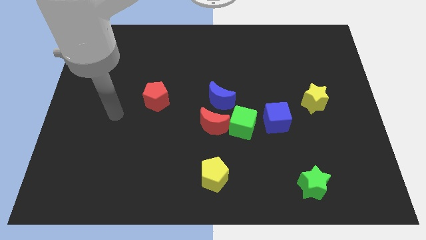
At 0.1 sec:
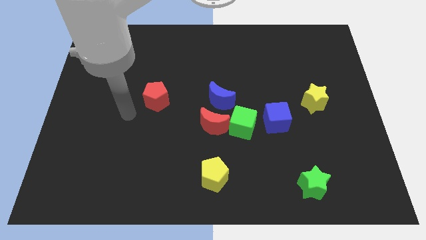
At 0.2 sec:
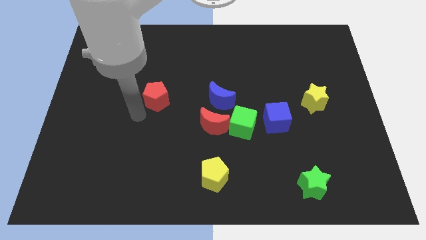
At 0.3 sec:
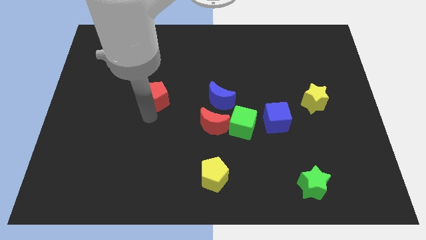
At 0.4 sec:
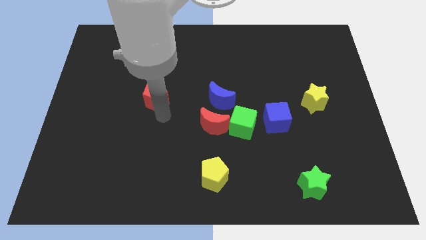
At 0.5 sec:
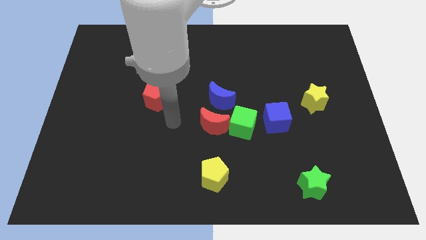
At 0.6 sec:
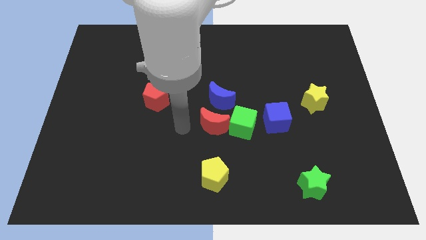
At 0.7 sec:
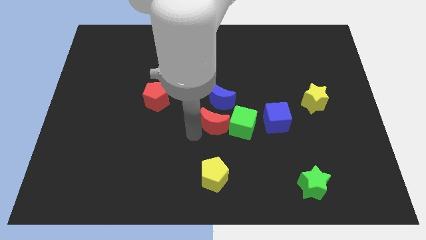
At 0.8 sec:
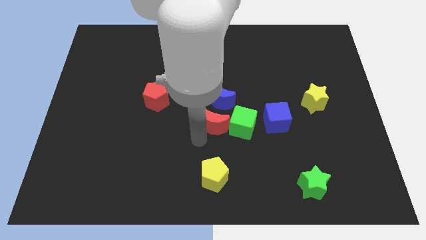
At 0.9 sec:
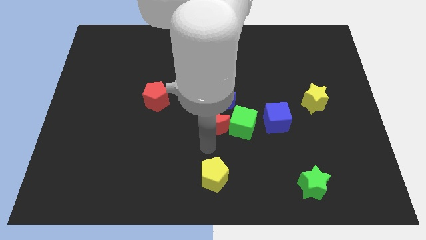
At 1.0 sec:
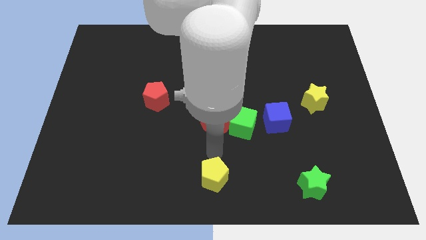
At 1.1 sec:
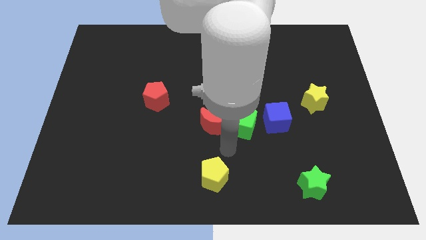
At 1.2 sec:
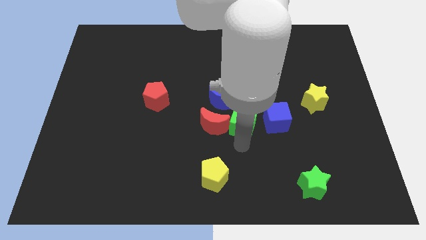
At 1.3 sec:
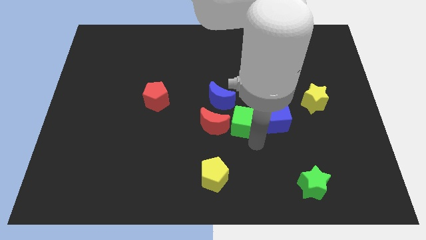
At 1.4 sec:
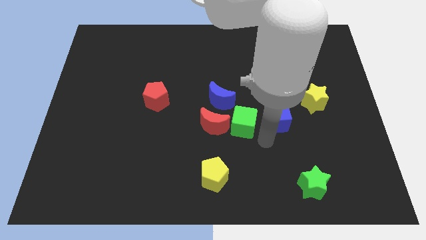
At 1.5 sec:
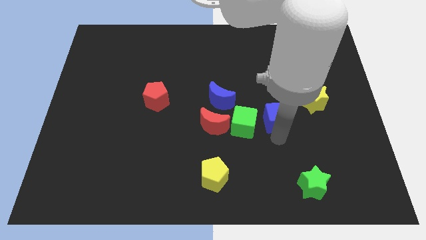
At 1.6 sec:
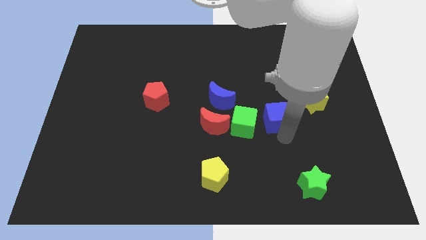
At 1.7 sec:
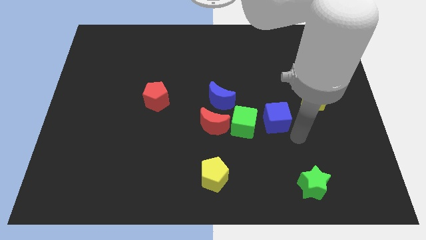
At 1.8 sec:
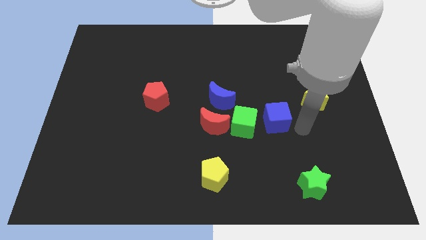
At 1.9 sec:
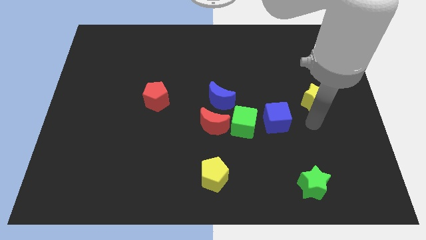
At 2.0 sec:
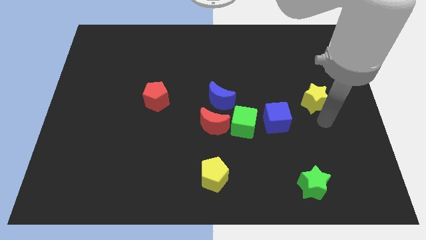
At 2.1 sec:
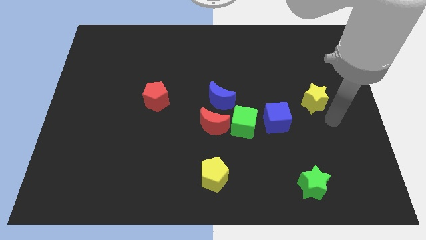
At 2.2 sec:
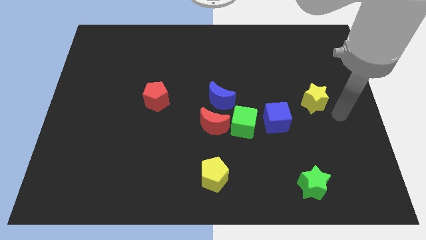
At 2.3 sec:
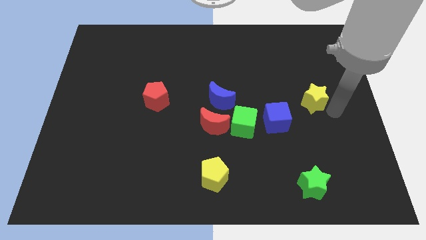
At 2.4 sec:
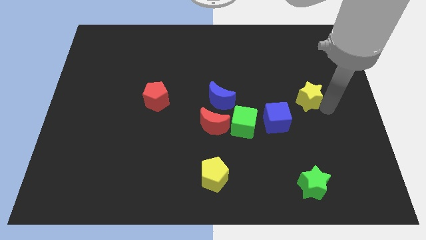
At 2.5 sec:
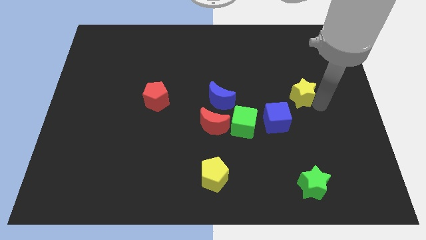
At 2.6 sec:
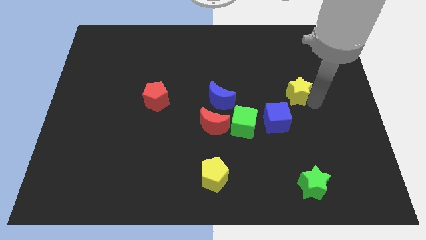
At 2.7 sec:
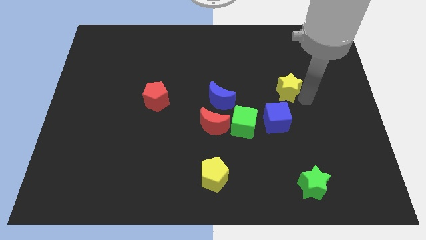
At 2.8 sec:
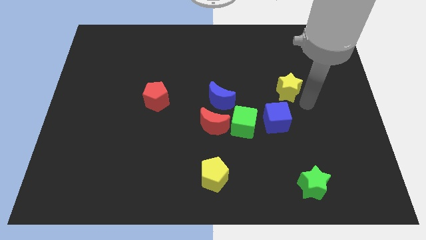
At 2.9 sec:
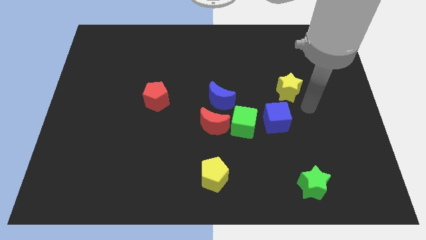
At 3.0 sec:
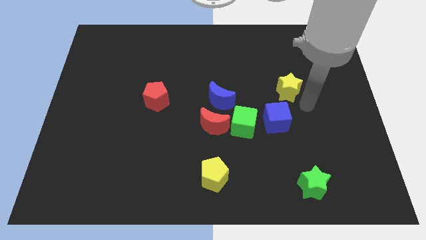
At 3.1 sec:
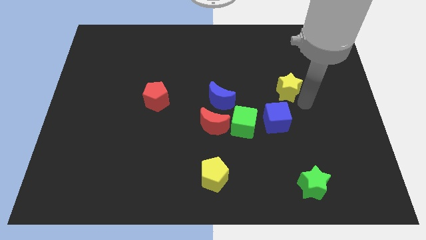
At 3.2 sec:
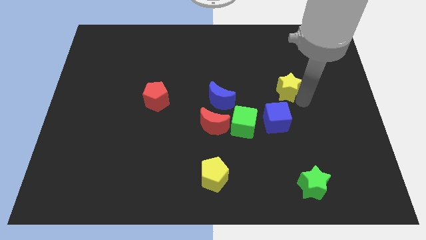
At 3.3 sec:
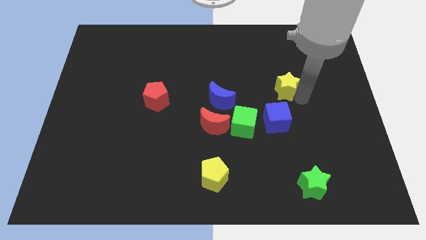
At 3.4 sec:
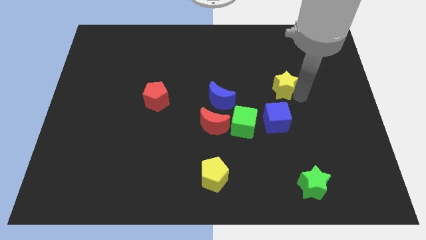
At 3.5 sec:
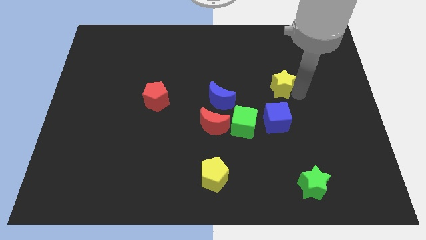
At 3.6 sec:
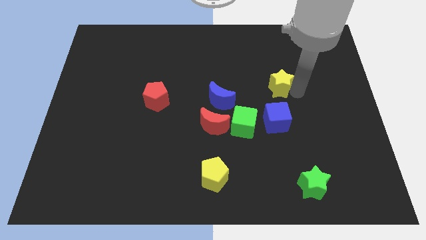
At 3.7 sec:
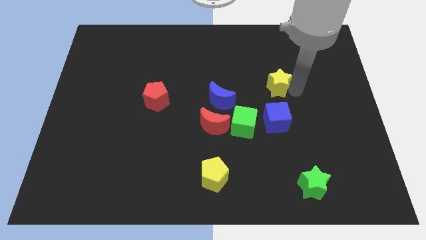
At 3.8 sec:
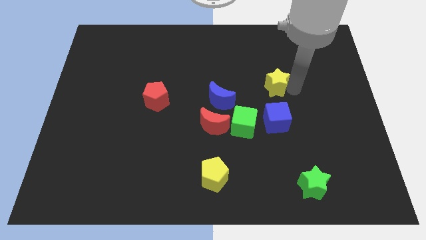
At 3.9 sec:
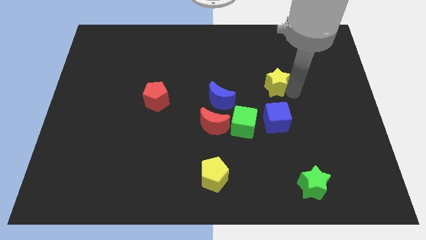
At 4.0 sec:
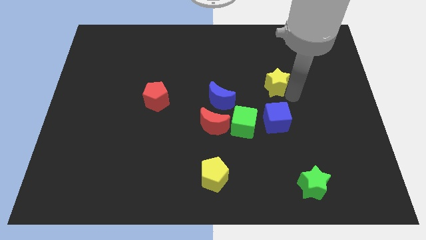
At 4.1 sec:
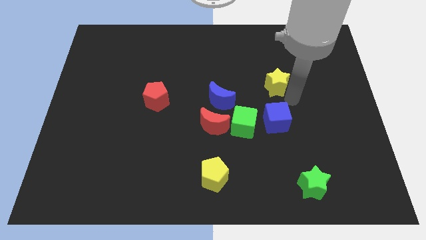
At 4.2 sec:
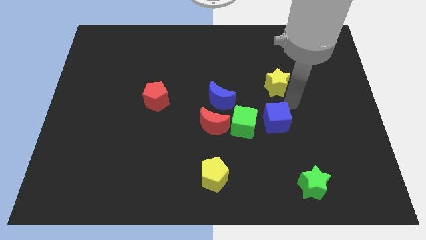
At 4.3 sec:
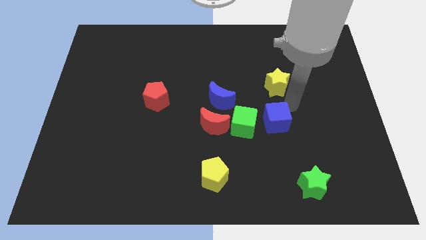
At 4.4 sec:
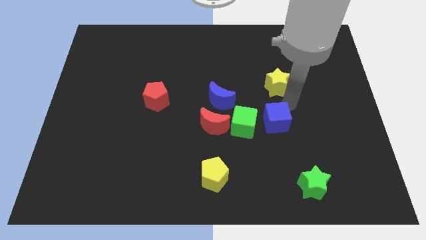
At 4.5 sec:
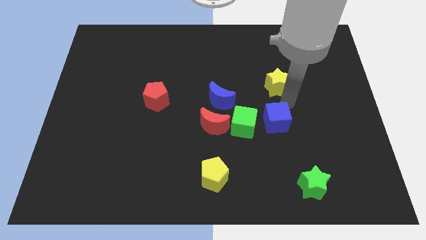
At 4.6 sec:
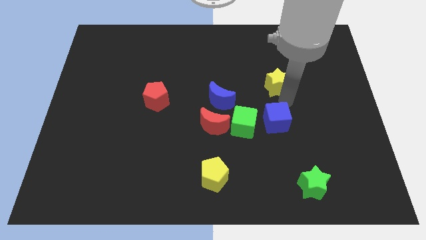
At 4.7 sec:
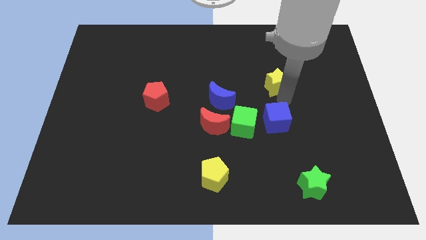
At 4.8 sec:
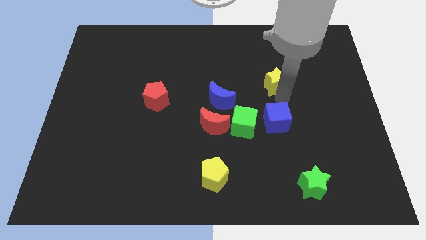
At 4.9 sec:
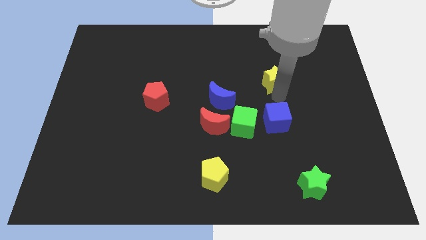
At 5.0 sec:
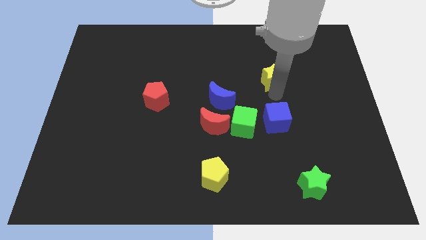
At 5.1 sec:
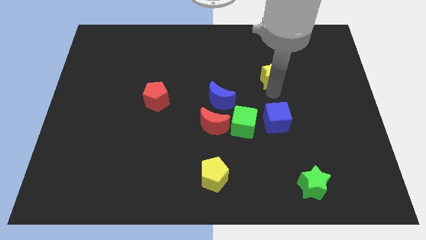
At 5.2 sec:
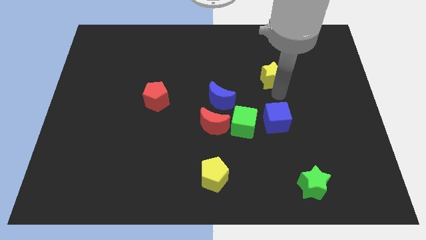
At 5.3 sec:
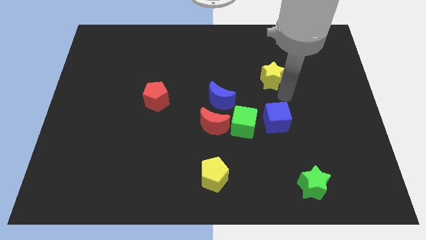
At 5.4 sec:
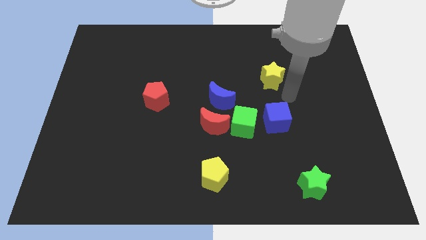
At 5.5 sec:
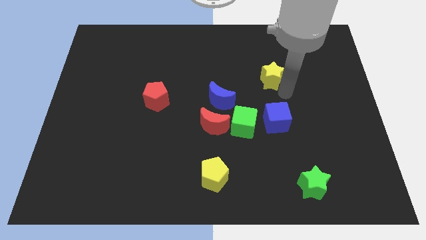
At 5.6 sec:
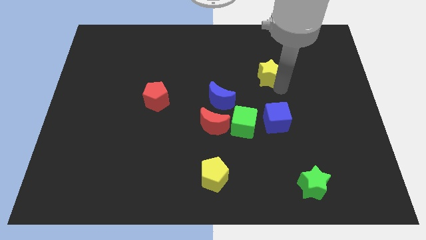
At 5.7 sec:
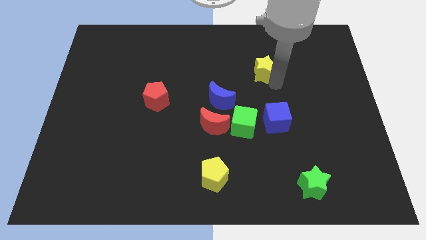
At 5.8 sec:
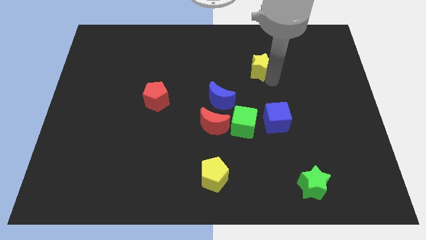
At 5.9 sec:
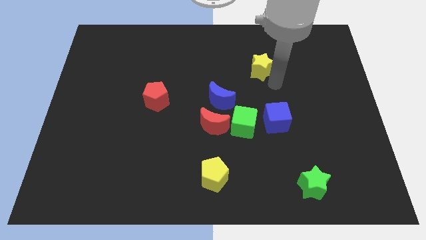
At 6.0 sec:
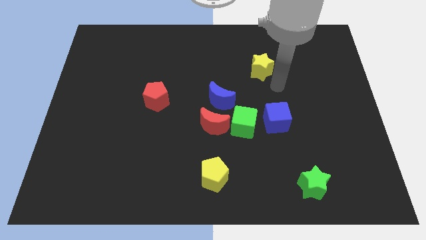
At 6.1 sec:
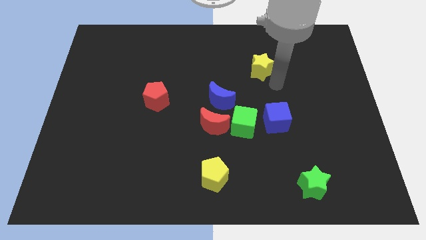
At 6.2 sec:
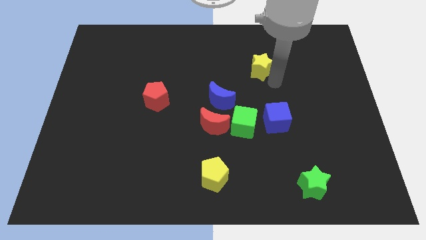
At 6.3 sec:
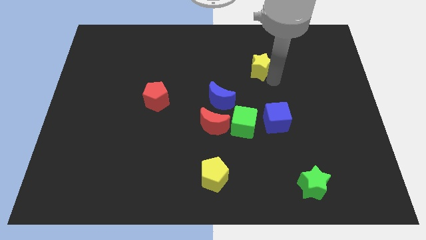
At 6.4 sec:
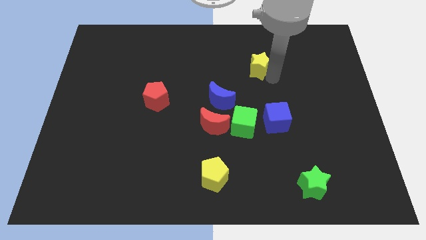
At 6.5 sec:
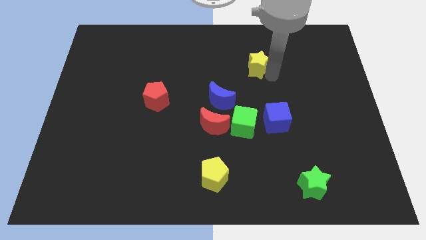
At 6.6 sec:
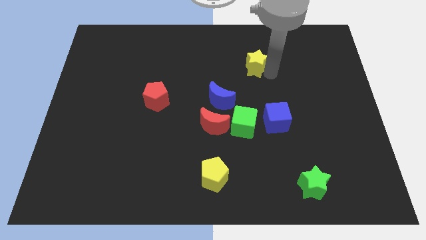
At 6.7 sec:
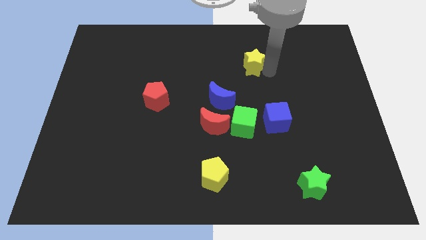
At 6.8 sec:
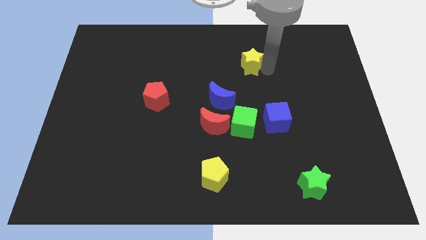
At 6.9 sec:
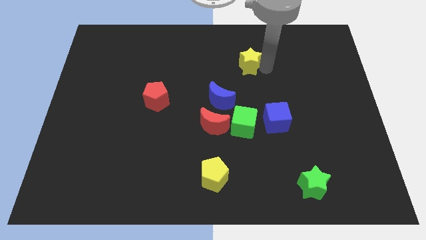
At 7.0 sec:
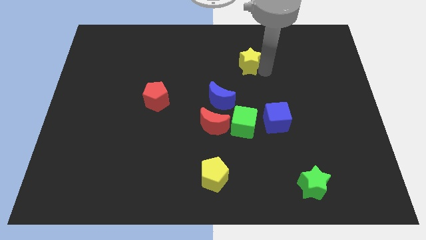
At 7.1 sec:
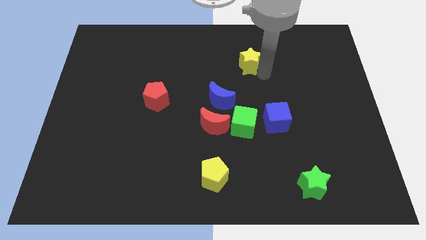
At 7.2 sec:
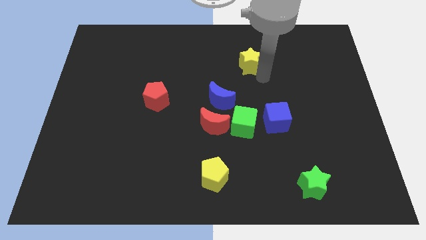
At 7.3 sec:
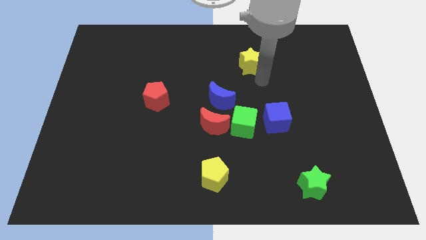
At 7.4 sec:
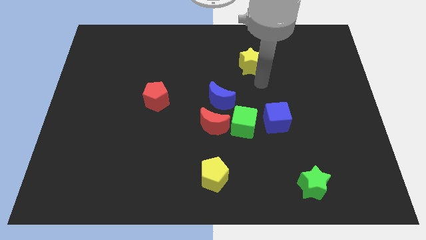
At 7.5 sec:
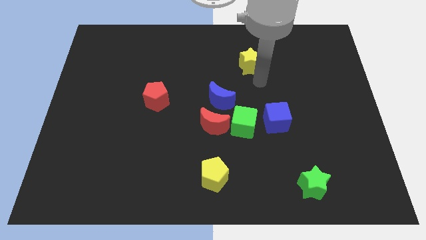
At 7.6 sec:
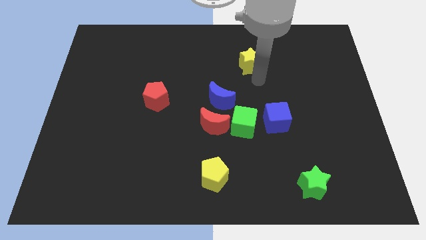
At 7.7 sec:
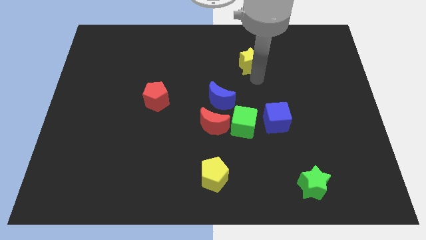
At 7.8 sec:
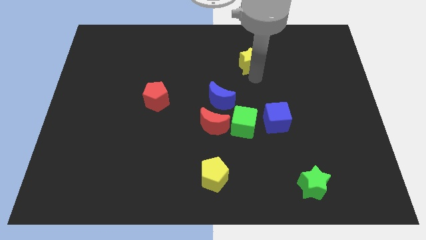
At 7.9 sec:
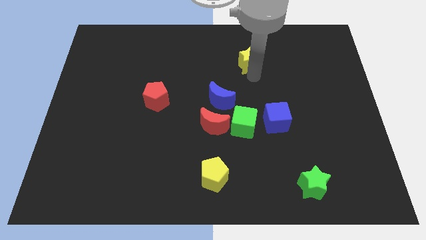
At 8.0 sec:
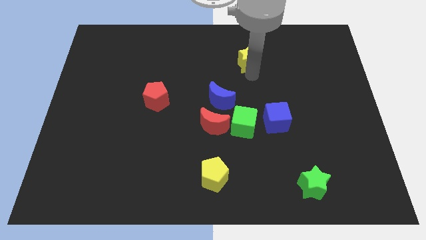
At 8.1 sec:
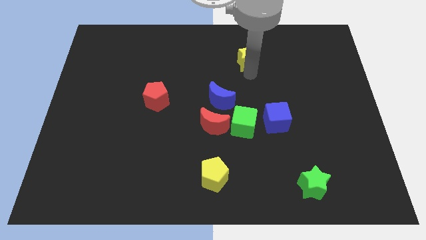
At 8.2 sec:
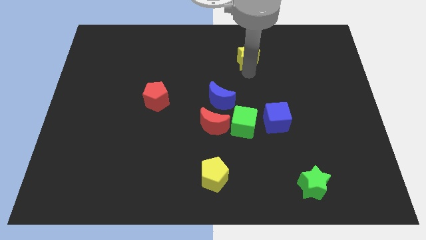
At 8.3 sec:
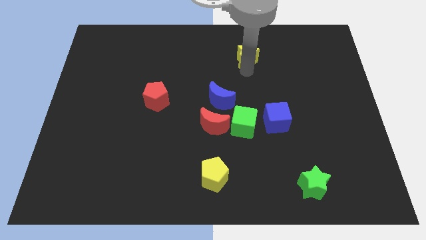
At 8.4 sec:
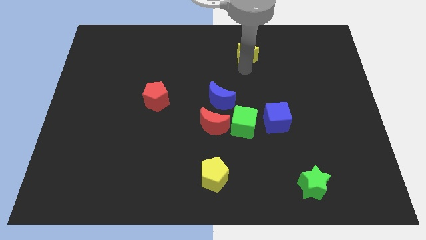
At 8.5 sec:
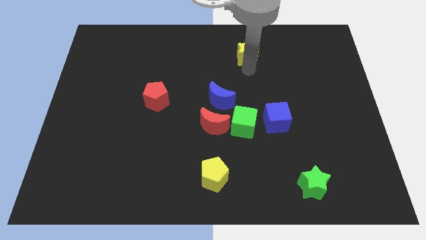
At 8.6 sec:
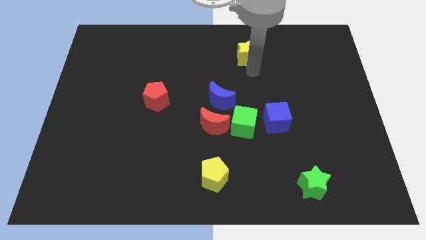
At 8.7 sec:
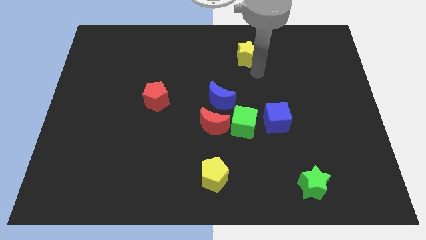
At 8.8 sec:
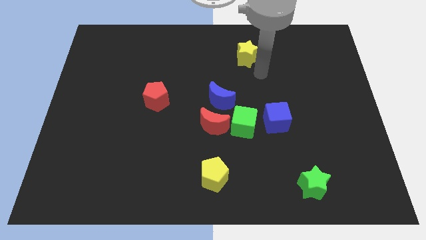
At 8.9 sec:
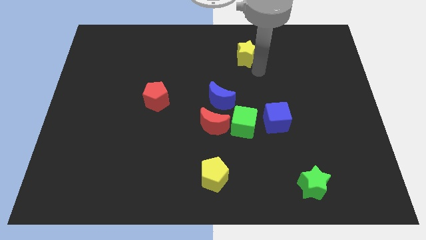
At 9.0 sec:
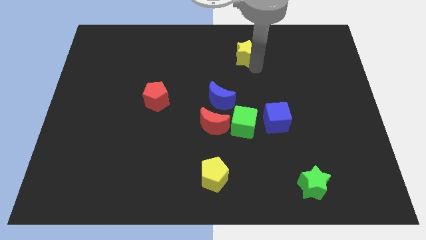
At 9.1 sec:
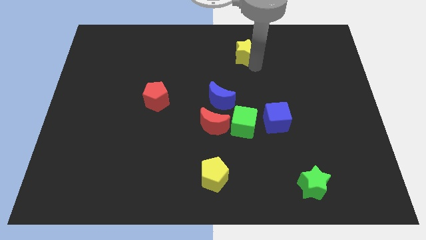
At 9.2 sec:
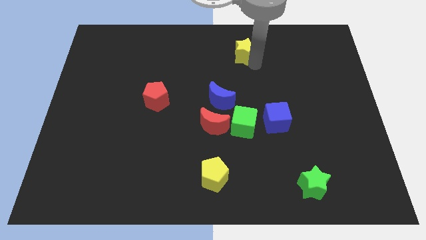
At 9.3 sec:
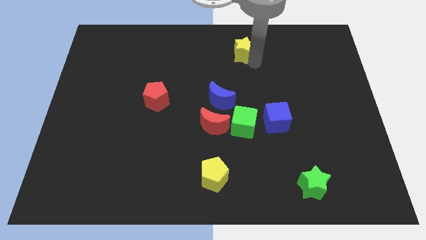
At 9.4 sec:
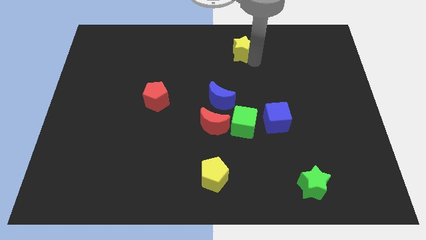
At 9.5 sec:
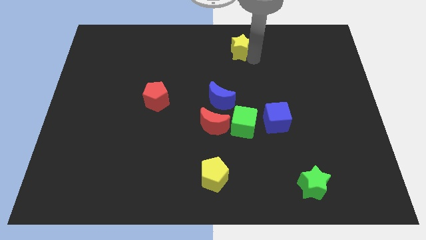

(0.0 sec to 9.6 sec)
move the yellow star to the top side
